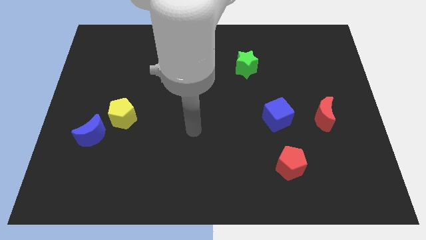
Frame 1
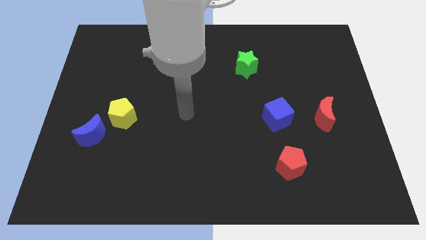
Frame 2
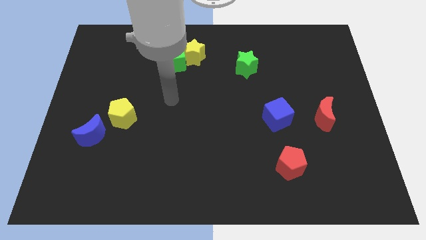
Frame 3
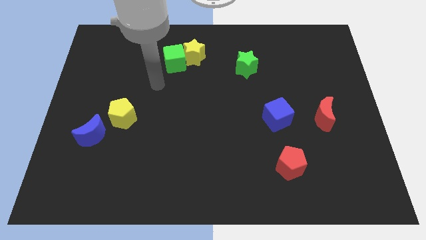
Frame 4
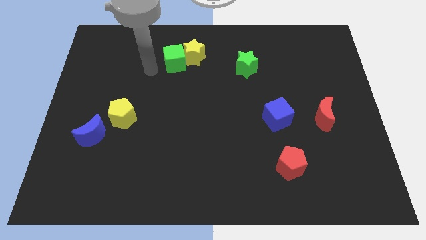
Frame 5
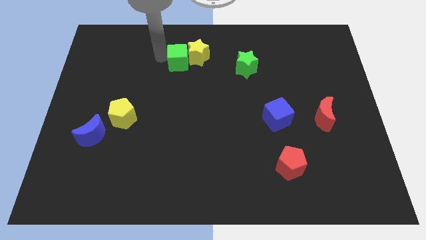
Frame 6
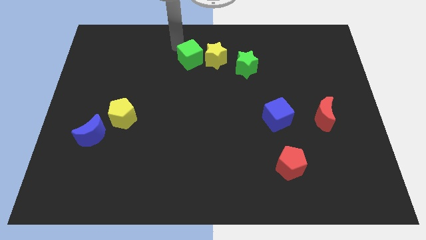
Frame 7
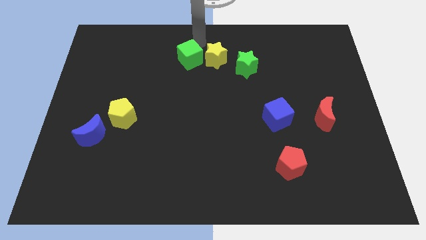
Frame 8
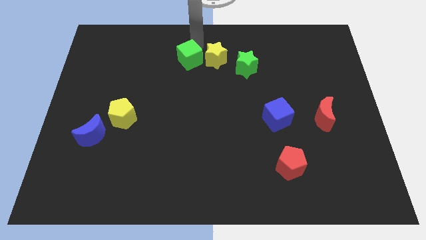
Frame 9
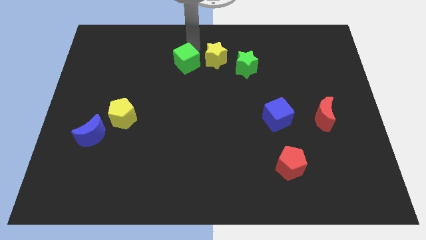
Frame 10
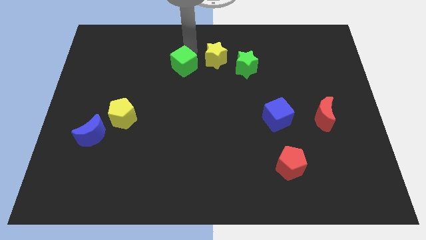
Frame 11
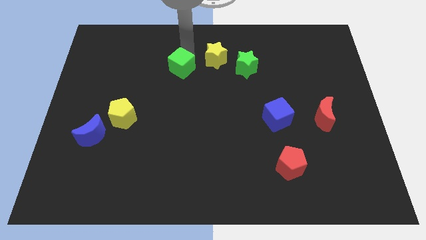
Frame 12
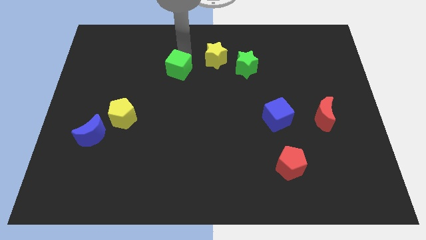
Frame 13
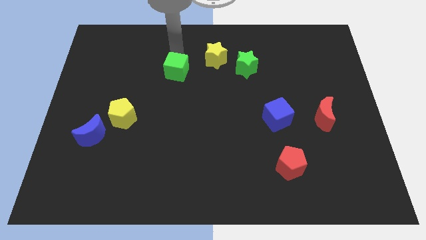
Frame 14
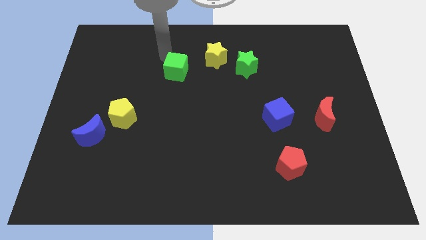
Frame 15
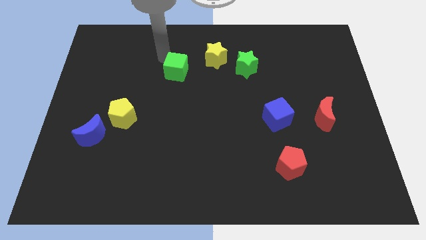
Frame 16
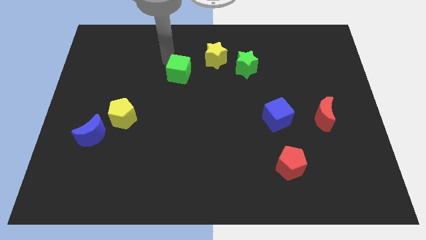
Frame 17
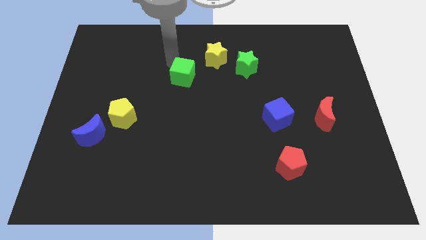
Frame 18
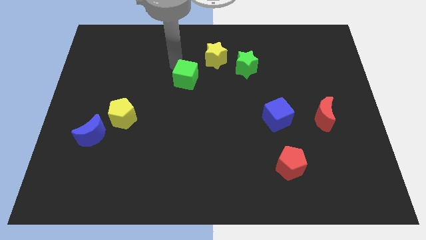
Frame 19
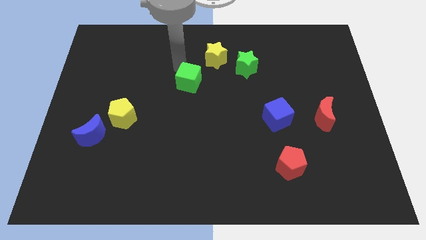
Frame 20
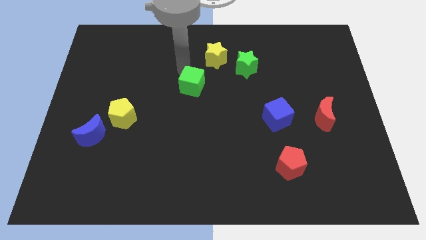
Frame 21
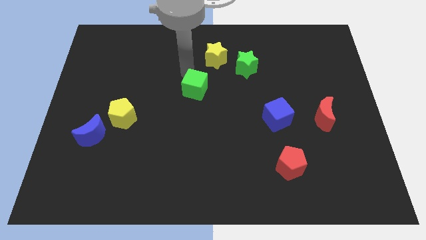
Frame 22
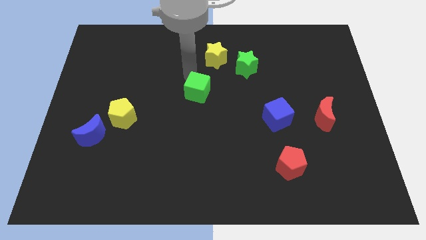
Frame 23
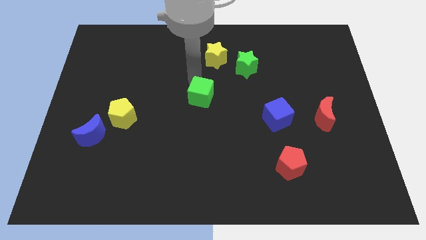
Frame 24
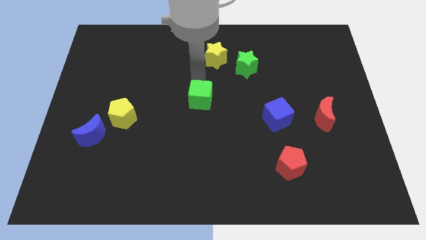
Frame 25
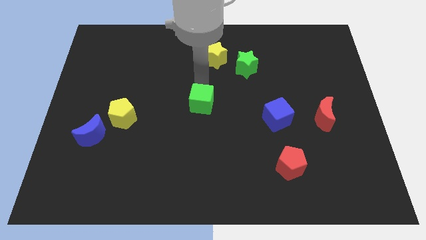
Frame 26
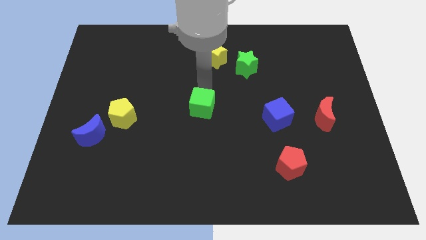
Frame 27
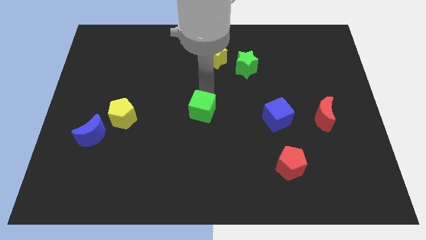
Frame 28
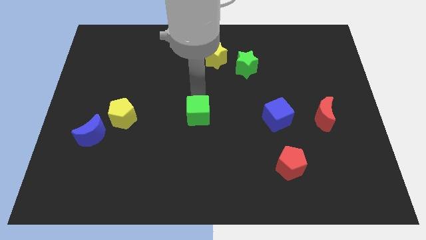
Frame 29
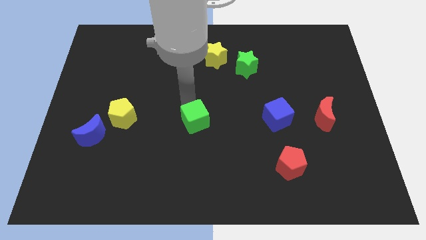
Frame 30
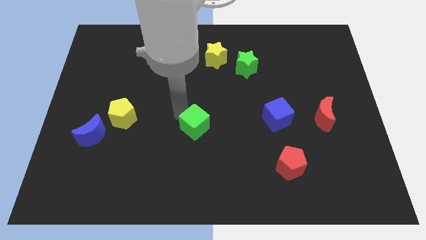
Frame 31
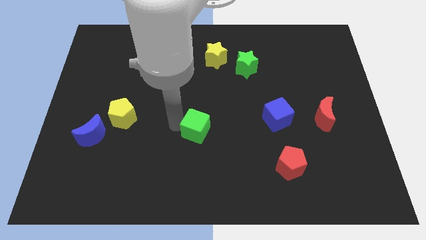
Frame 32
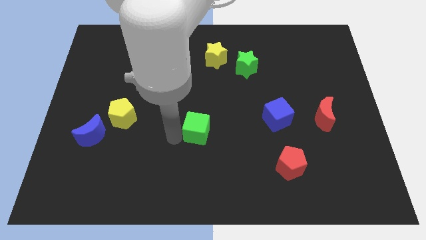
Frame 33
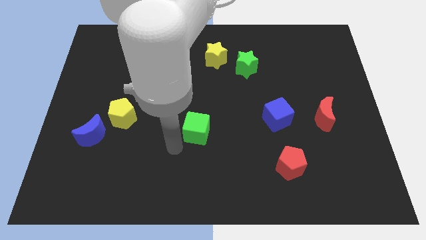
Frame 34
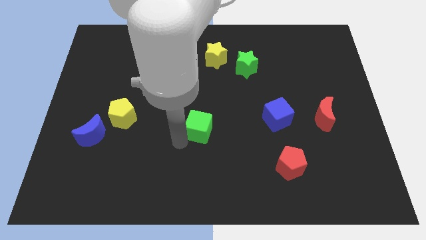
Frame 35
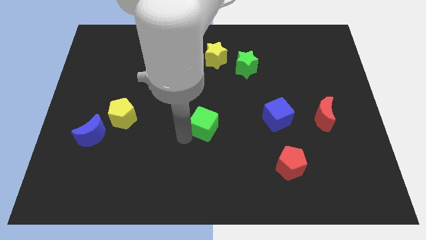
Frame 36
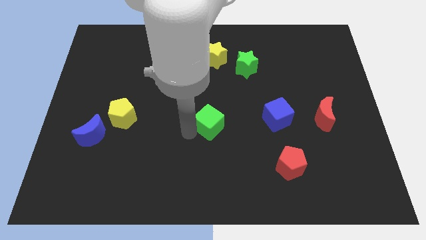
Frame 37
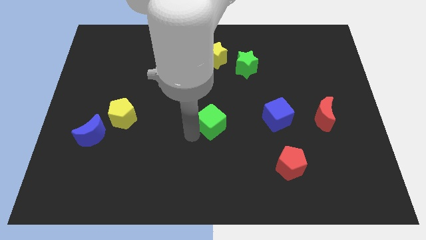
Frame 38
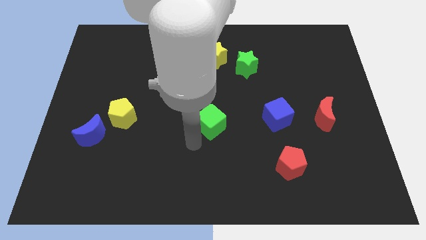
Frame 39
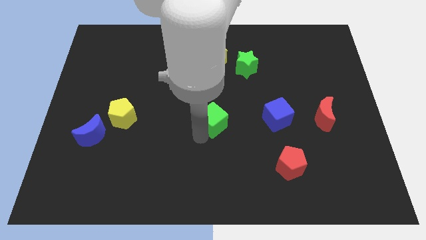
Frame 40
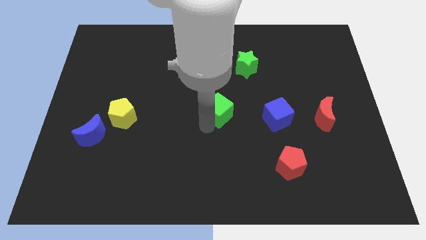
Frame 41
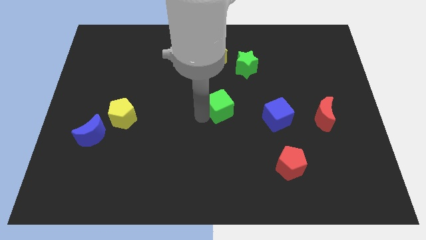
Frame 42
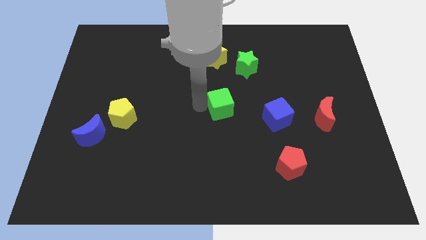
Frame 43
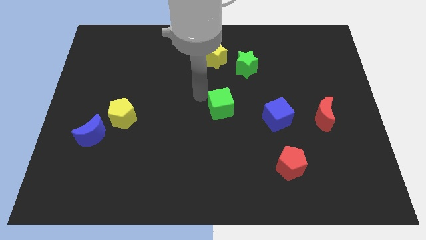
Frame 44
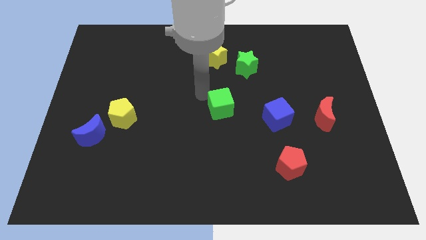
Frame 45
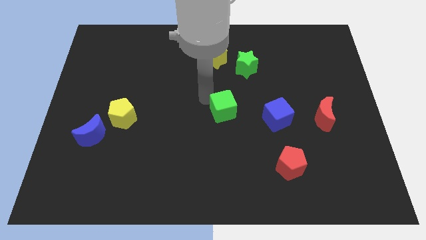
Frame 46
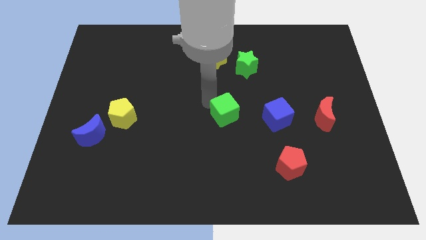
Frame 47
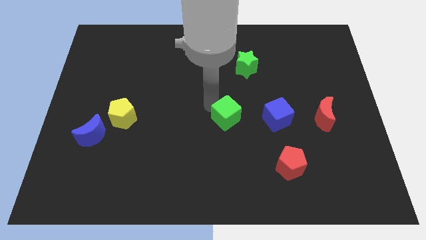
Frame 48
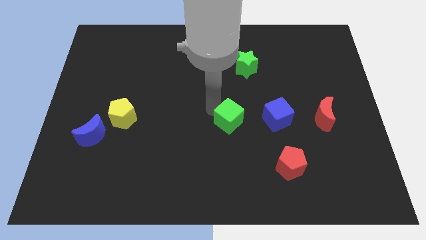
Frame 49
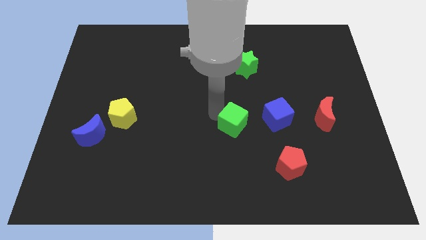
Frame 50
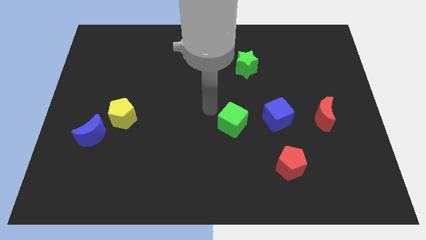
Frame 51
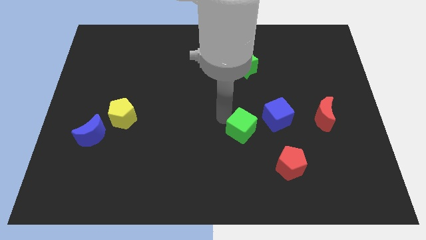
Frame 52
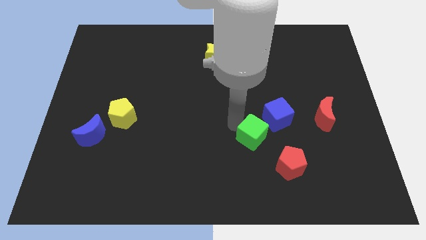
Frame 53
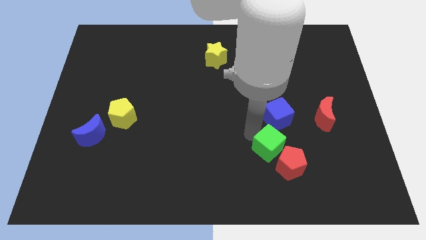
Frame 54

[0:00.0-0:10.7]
slide the green cube next to the red pentagon

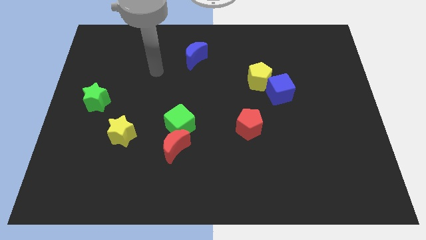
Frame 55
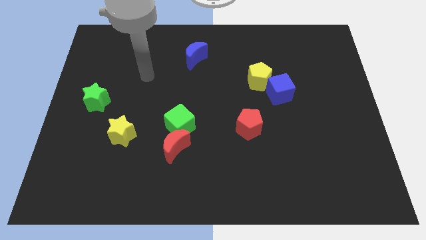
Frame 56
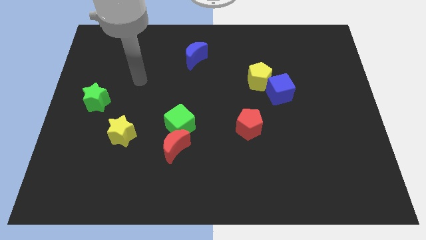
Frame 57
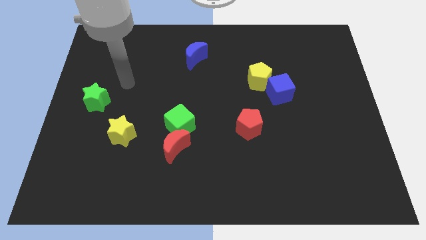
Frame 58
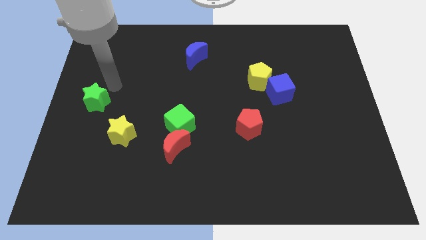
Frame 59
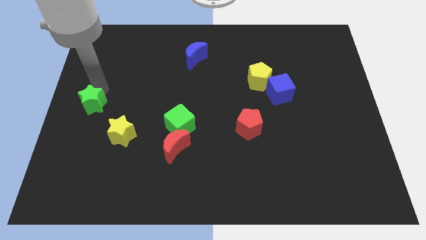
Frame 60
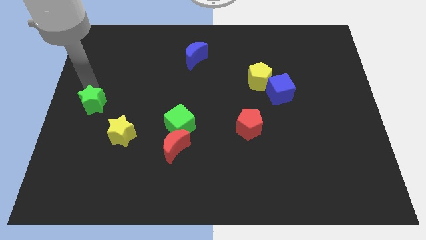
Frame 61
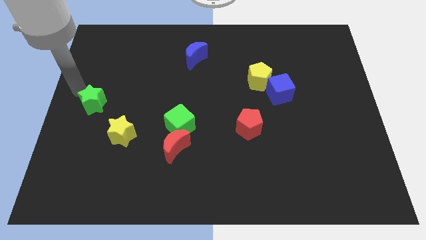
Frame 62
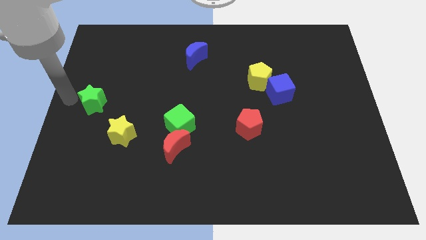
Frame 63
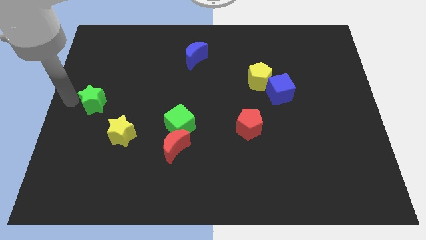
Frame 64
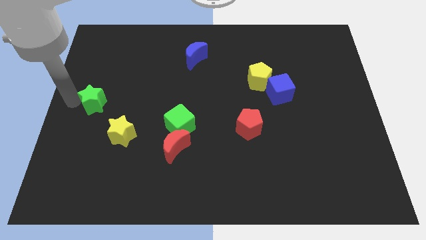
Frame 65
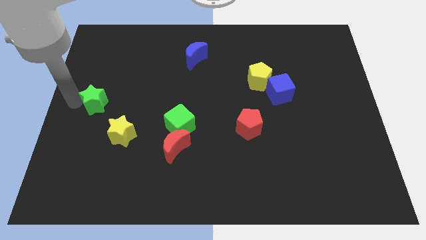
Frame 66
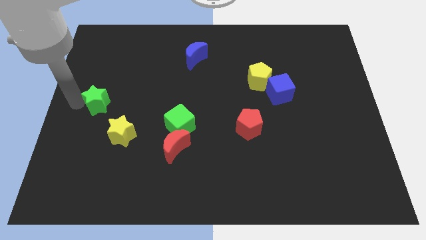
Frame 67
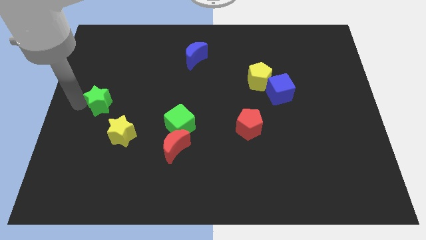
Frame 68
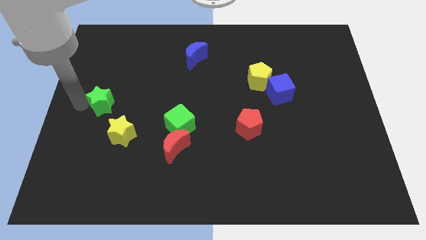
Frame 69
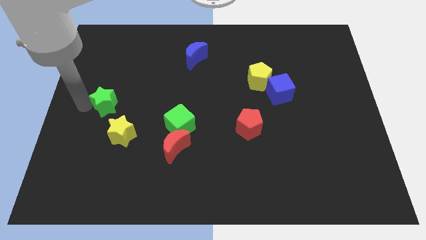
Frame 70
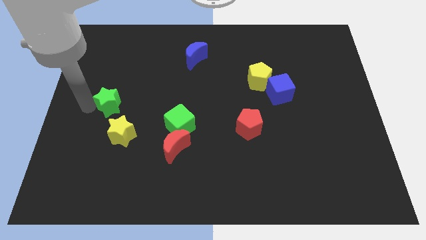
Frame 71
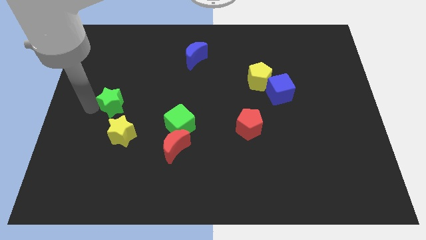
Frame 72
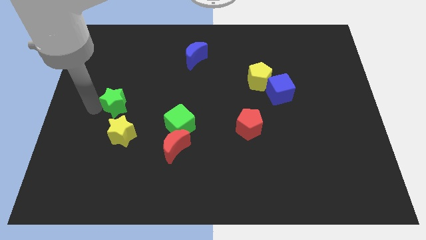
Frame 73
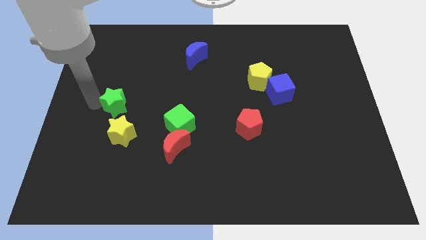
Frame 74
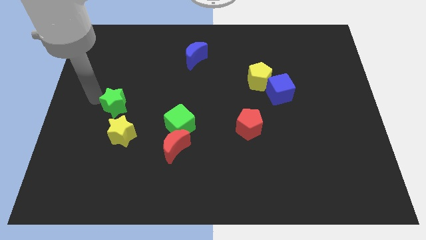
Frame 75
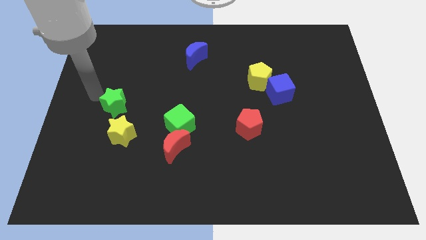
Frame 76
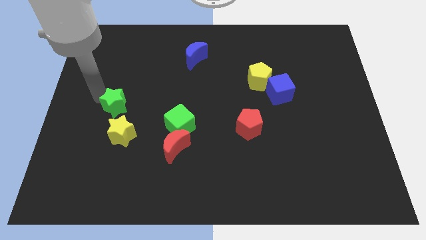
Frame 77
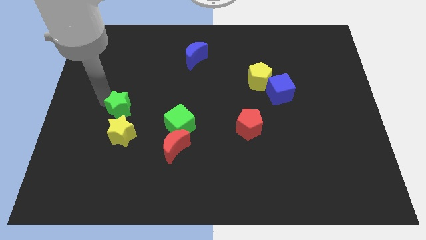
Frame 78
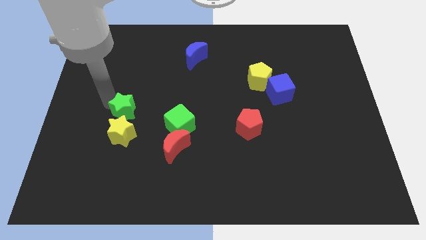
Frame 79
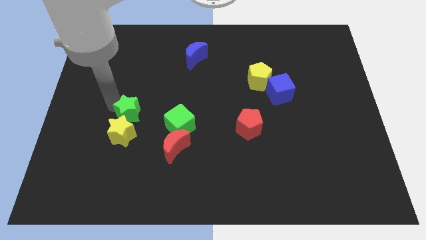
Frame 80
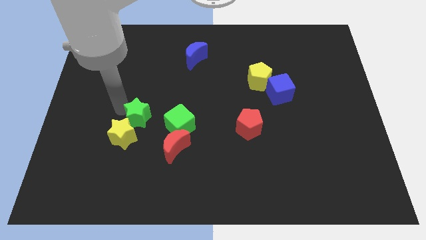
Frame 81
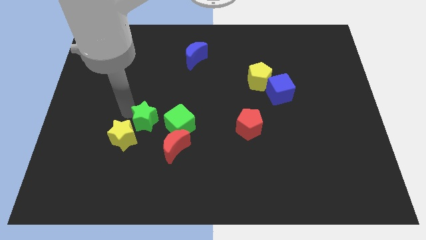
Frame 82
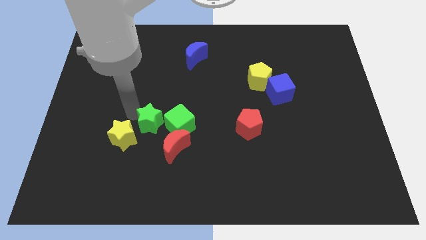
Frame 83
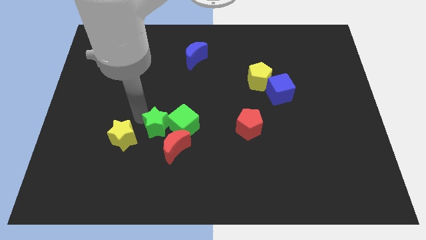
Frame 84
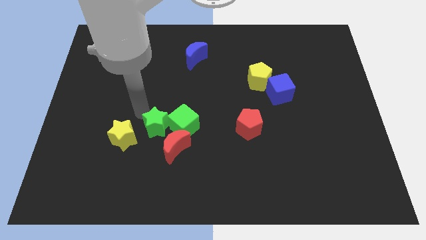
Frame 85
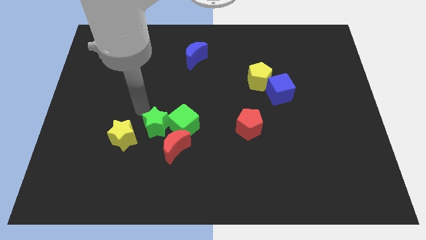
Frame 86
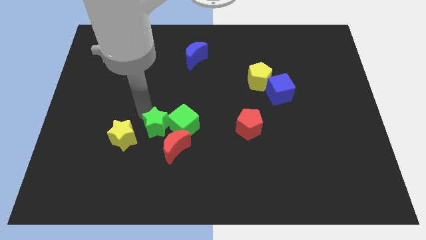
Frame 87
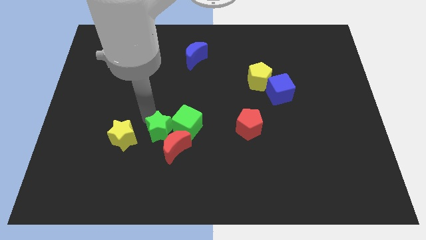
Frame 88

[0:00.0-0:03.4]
push the green star close to the red moon
